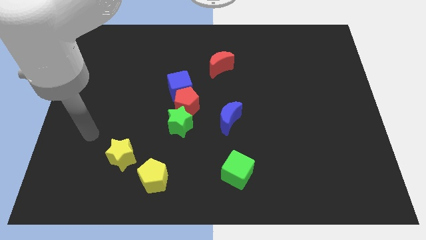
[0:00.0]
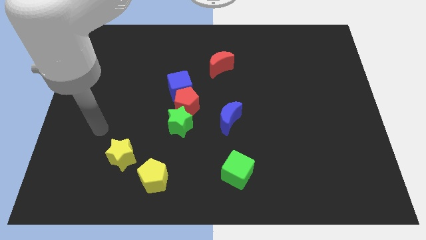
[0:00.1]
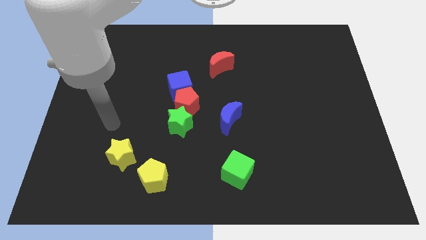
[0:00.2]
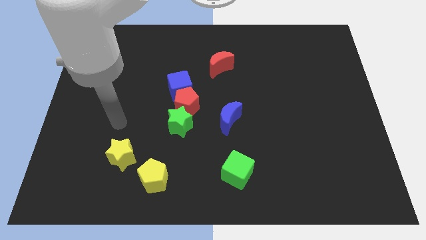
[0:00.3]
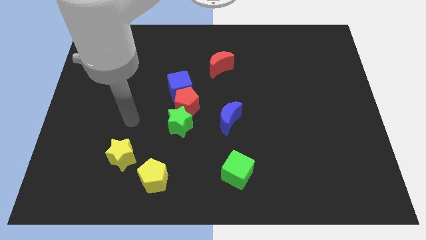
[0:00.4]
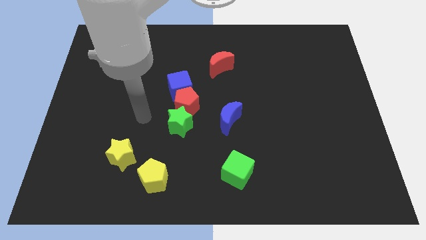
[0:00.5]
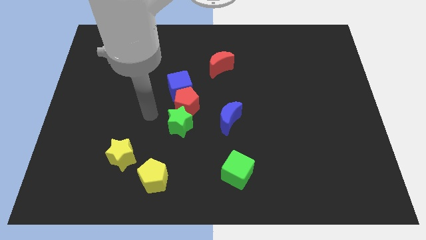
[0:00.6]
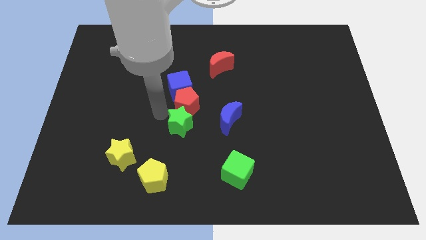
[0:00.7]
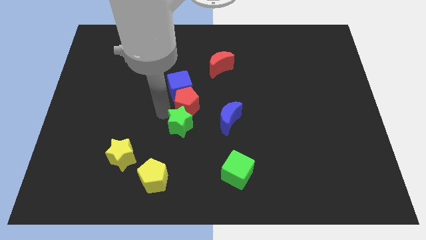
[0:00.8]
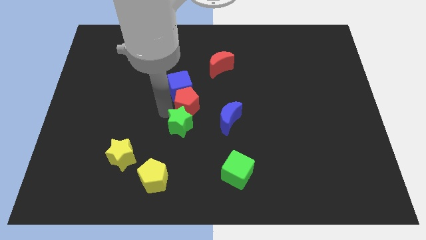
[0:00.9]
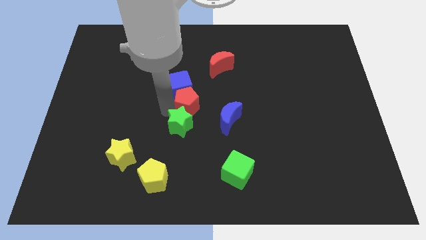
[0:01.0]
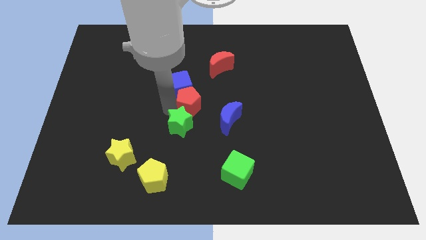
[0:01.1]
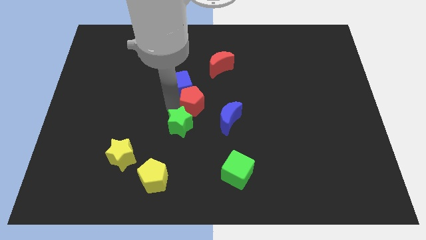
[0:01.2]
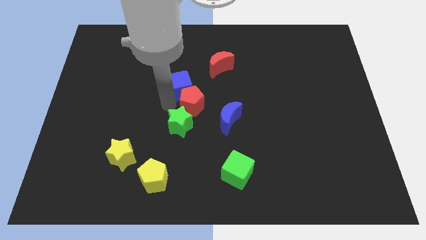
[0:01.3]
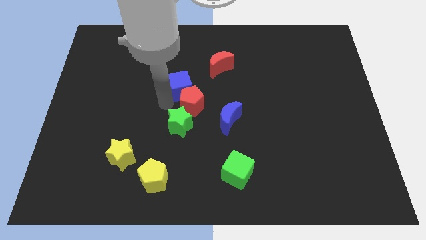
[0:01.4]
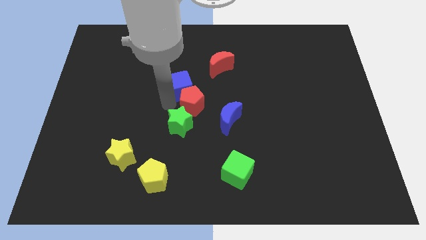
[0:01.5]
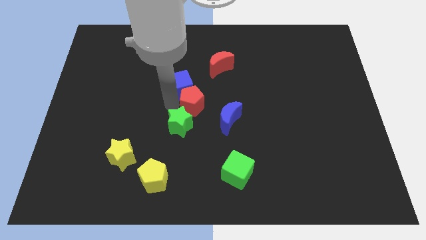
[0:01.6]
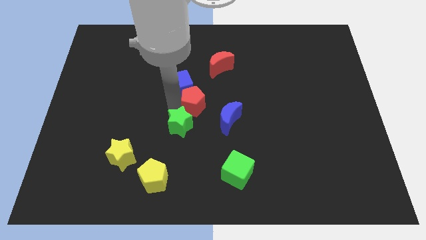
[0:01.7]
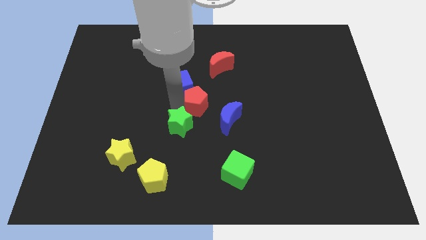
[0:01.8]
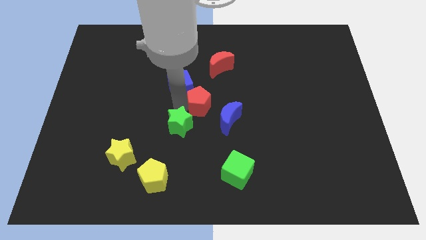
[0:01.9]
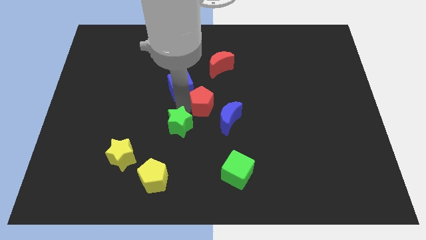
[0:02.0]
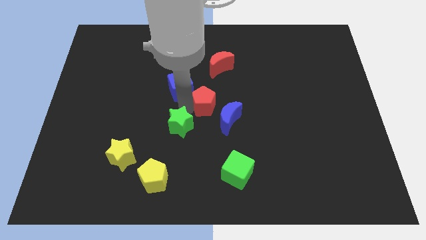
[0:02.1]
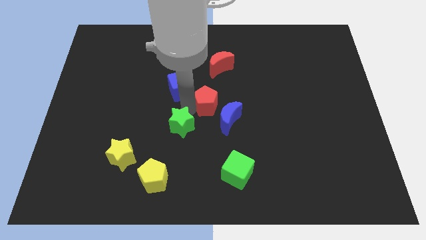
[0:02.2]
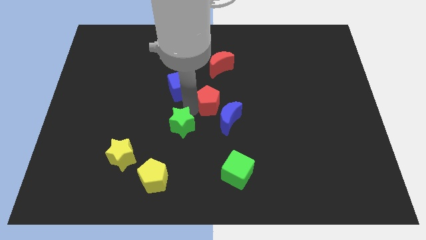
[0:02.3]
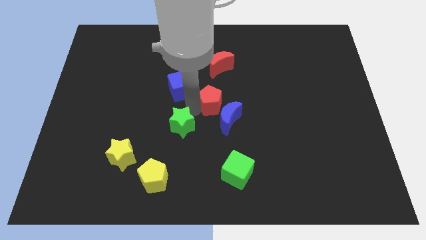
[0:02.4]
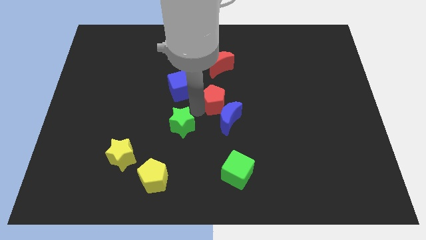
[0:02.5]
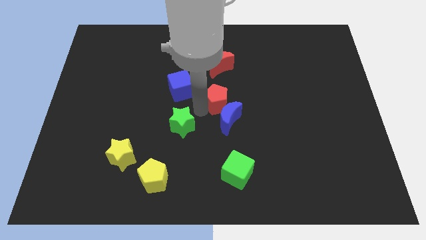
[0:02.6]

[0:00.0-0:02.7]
move the red pentagon right slightly

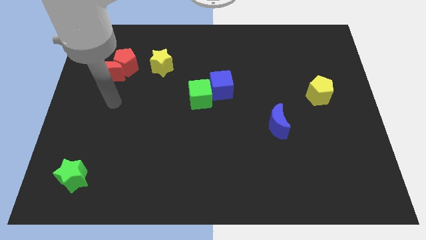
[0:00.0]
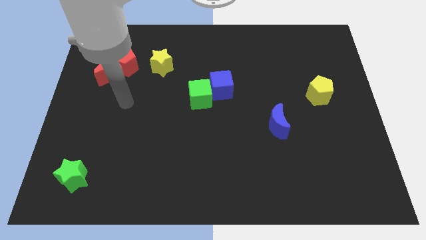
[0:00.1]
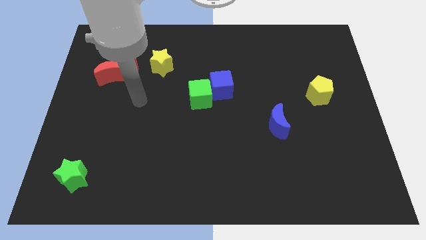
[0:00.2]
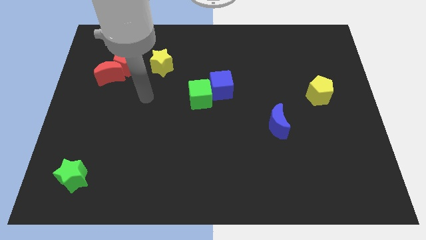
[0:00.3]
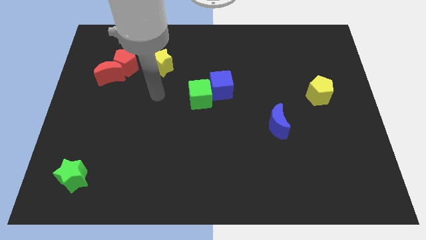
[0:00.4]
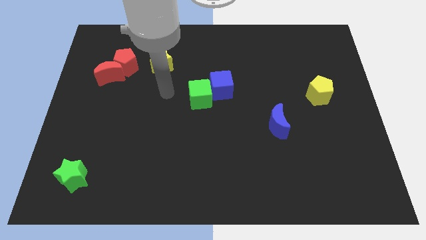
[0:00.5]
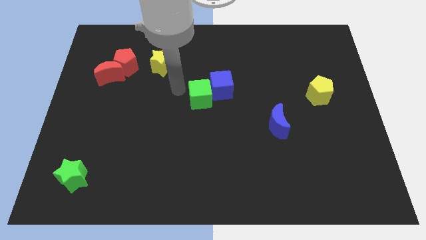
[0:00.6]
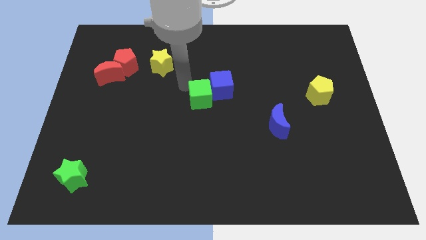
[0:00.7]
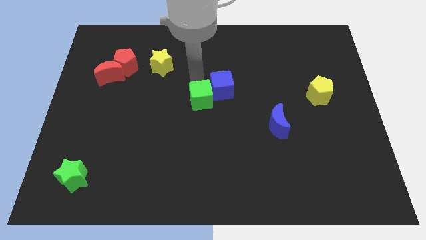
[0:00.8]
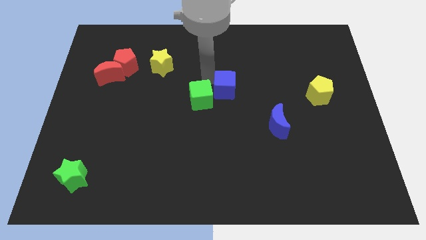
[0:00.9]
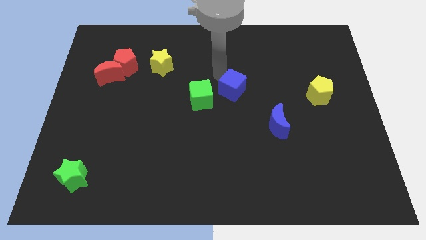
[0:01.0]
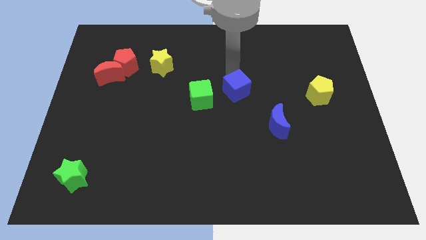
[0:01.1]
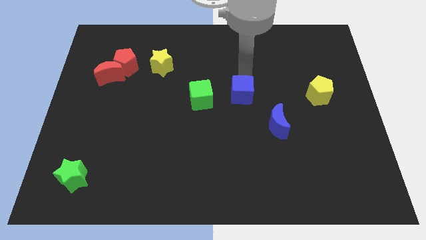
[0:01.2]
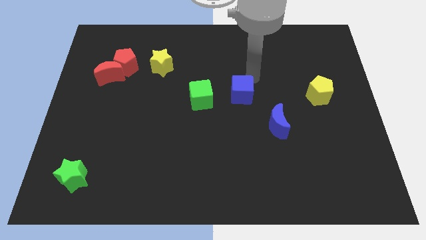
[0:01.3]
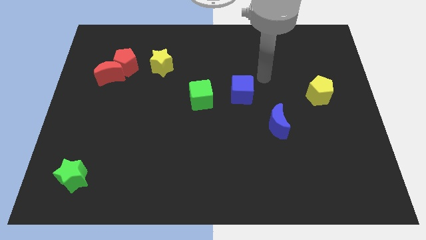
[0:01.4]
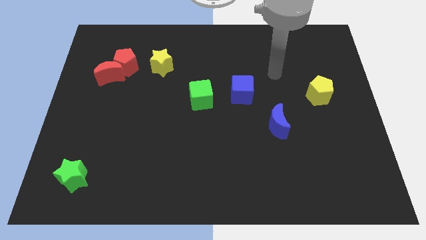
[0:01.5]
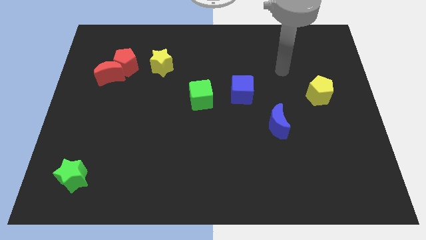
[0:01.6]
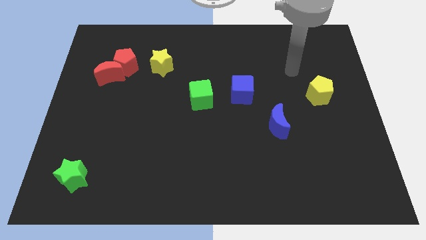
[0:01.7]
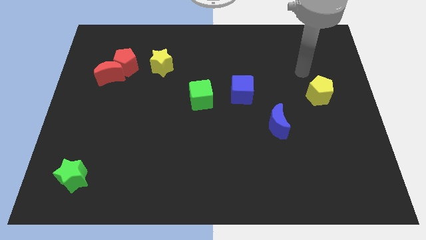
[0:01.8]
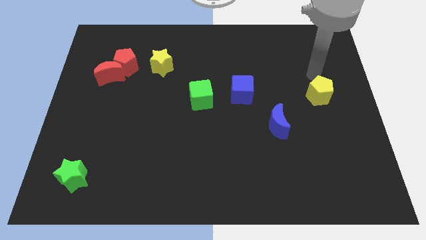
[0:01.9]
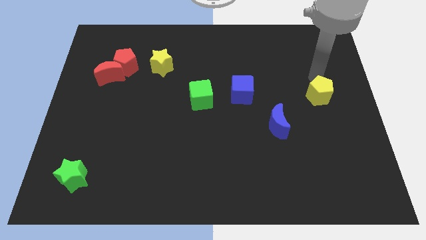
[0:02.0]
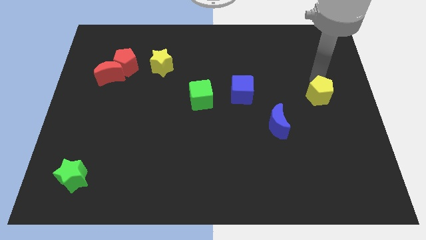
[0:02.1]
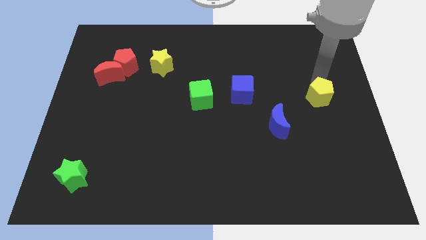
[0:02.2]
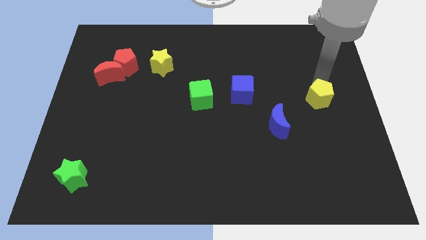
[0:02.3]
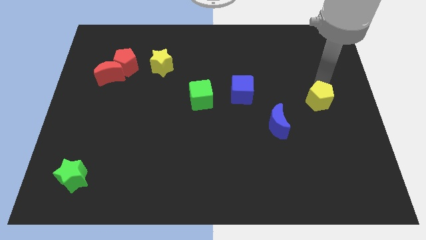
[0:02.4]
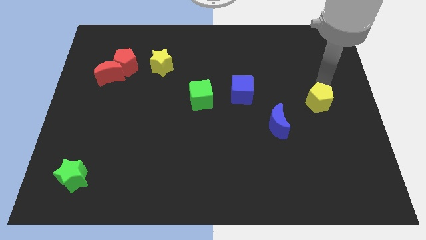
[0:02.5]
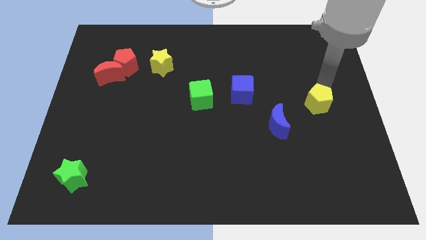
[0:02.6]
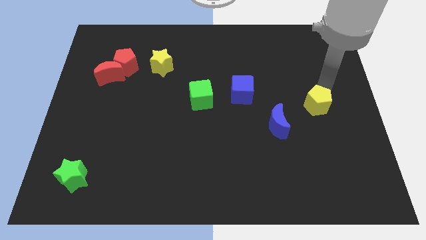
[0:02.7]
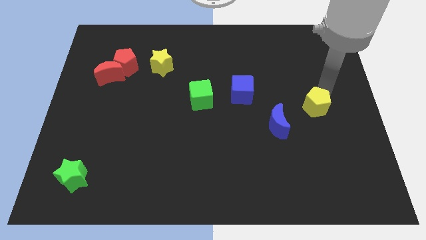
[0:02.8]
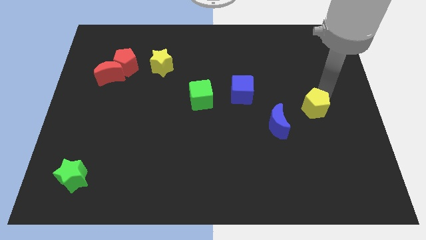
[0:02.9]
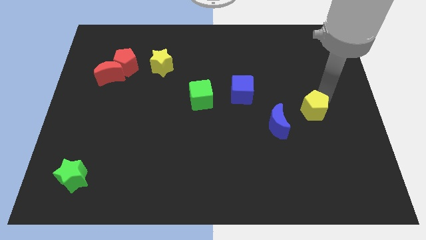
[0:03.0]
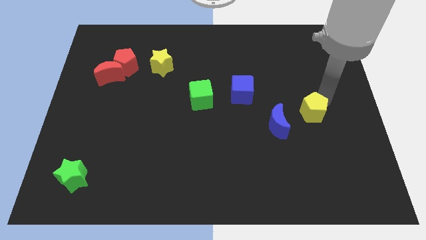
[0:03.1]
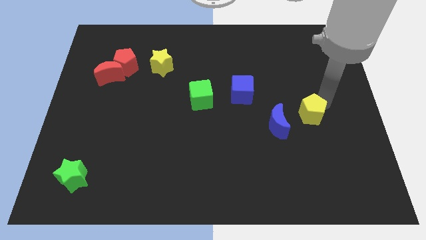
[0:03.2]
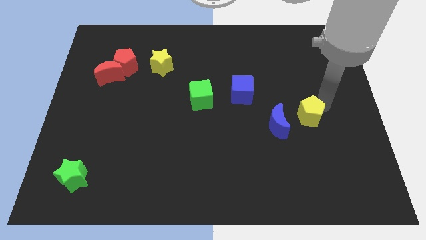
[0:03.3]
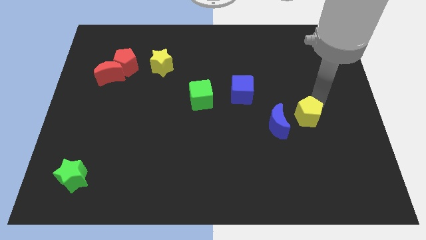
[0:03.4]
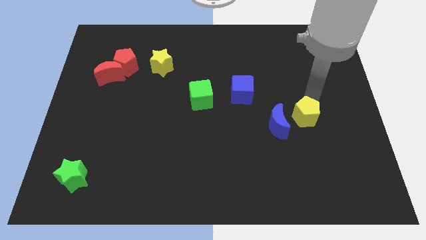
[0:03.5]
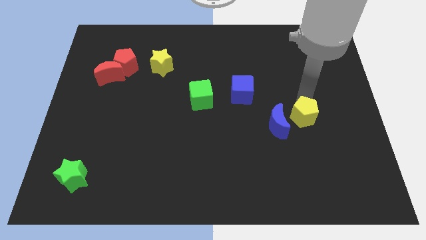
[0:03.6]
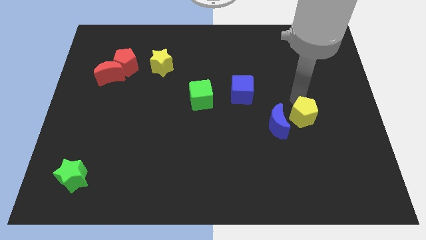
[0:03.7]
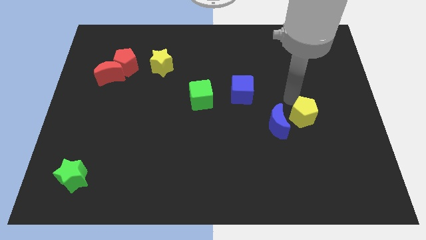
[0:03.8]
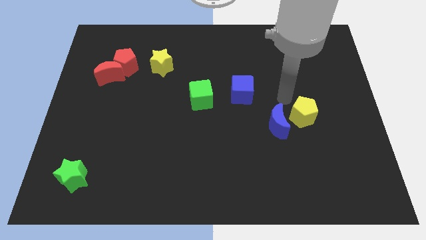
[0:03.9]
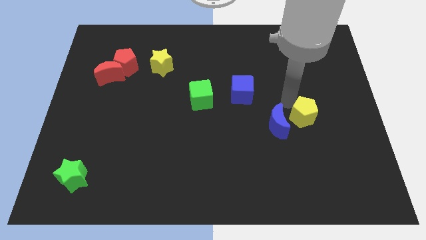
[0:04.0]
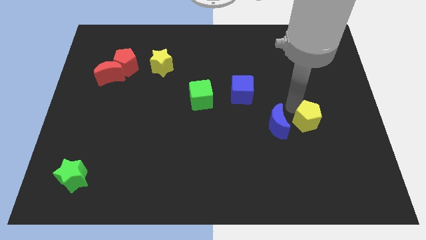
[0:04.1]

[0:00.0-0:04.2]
slide the yellow pentagon a little bit downwards

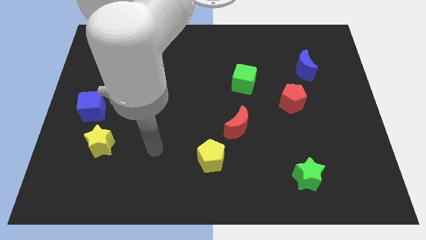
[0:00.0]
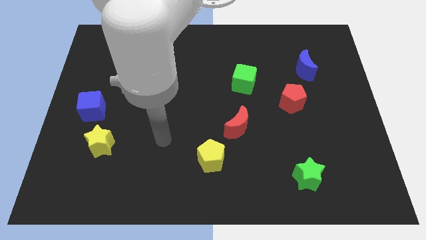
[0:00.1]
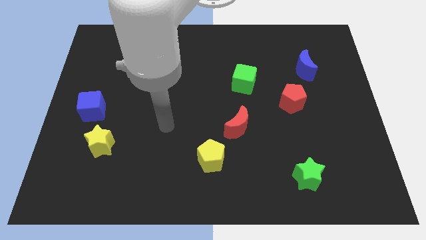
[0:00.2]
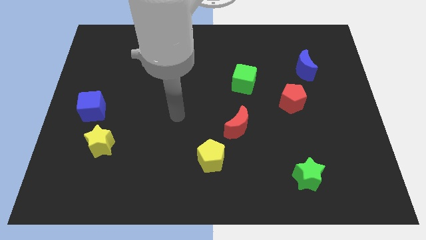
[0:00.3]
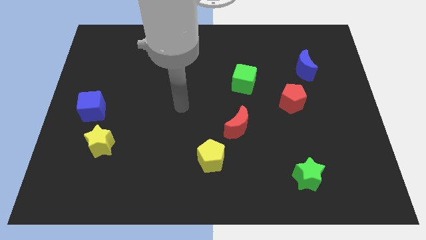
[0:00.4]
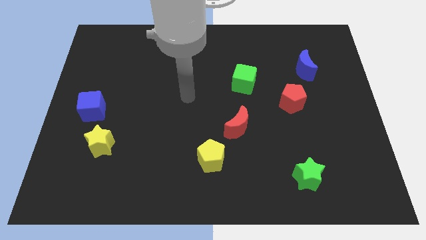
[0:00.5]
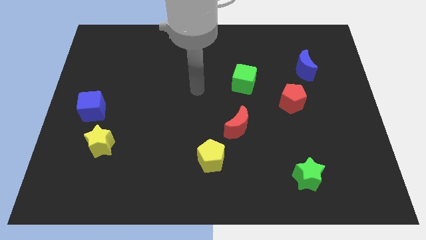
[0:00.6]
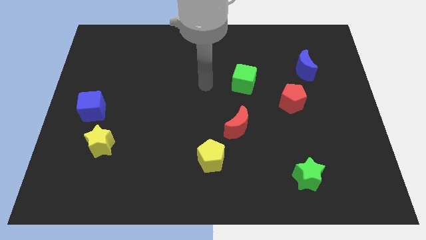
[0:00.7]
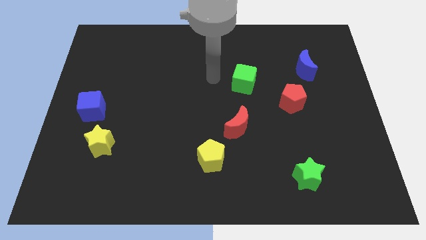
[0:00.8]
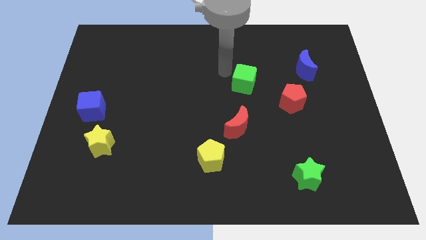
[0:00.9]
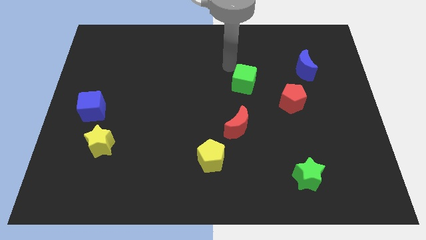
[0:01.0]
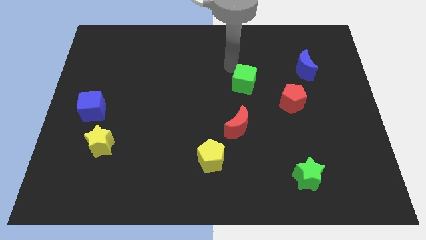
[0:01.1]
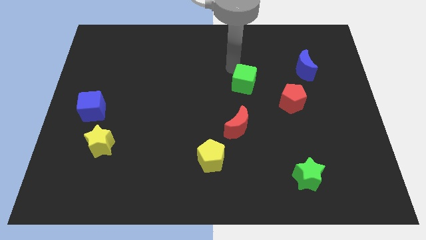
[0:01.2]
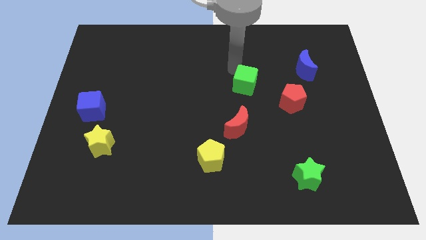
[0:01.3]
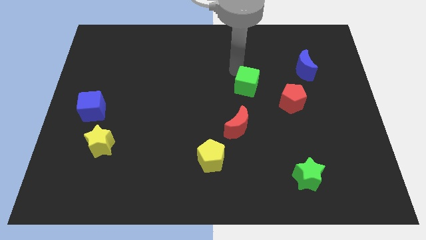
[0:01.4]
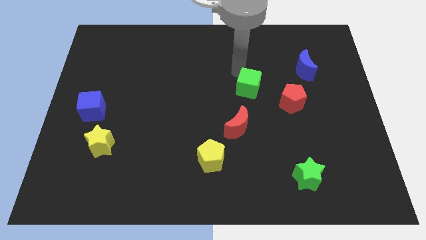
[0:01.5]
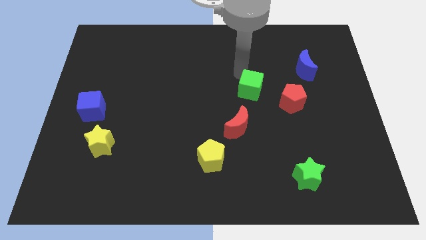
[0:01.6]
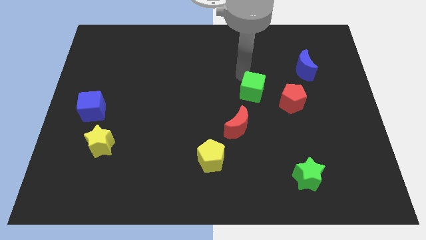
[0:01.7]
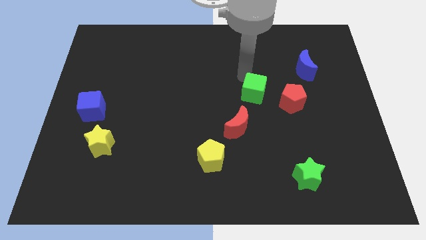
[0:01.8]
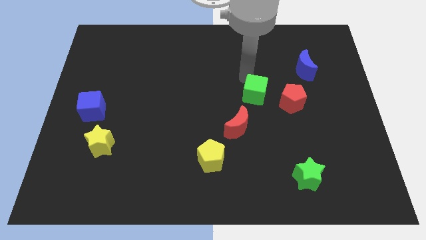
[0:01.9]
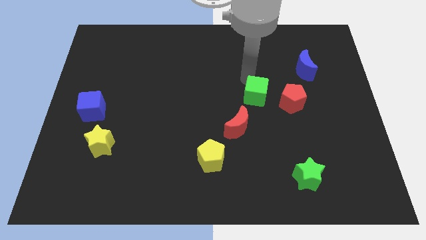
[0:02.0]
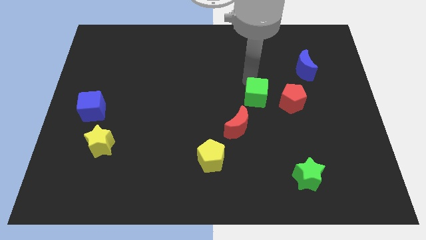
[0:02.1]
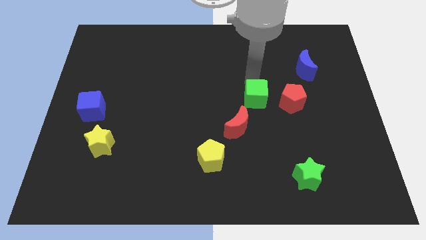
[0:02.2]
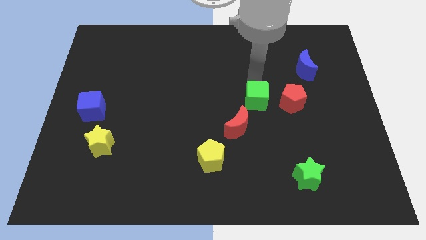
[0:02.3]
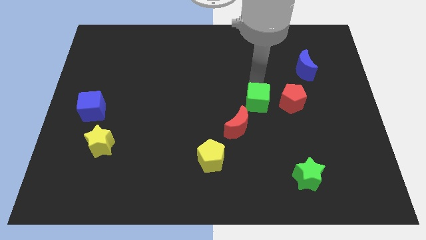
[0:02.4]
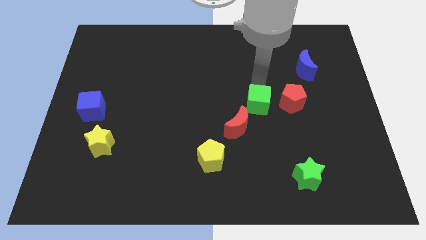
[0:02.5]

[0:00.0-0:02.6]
slide the green cube downwards and right diagonally a little bit
